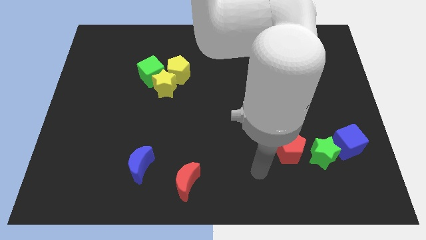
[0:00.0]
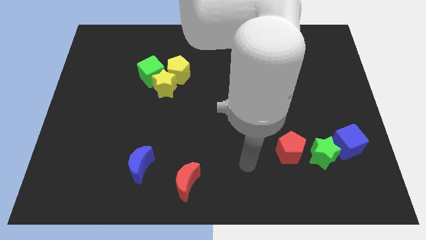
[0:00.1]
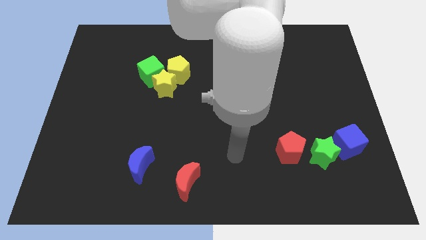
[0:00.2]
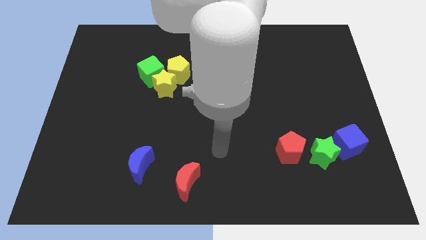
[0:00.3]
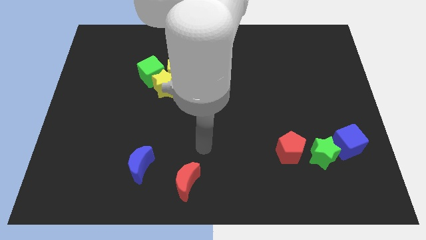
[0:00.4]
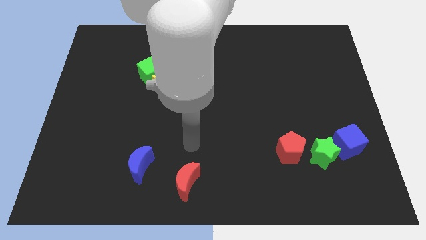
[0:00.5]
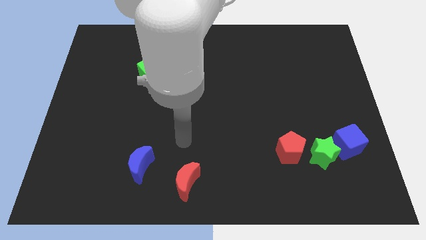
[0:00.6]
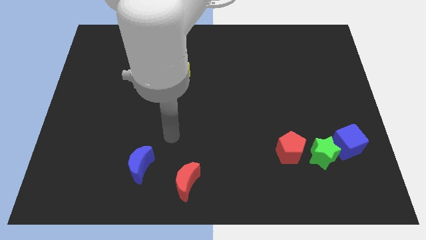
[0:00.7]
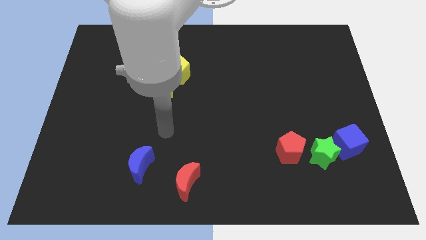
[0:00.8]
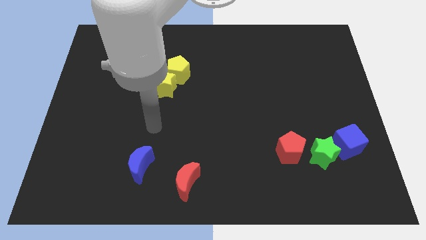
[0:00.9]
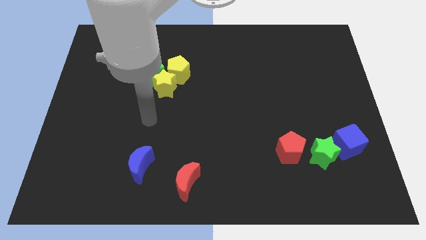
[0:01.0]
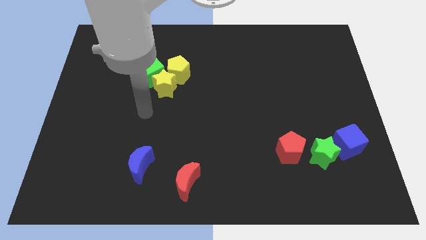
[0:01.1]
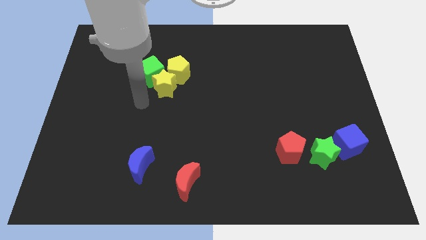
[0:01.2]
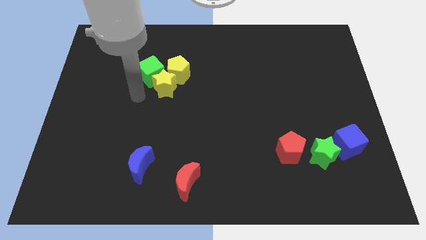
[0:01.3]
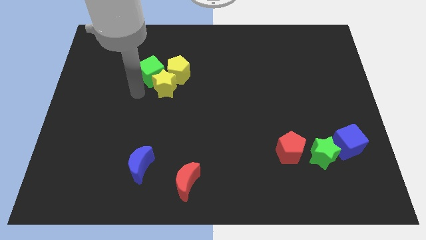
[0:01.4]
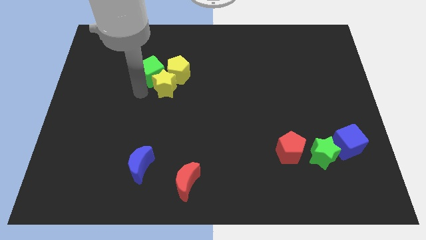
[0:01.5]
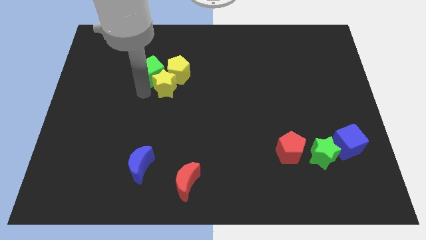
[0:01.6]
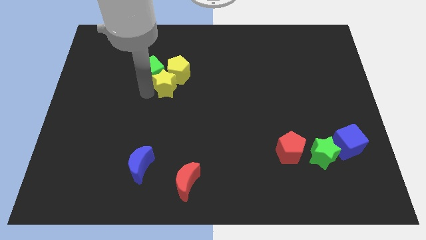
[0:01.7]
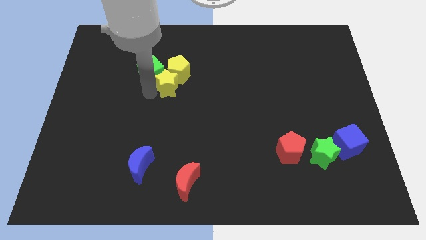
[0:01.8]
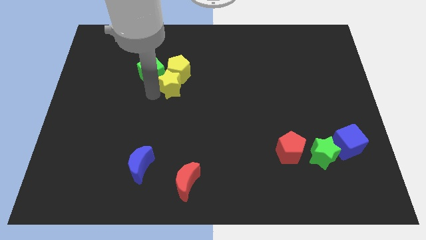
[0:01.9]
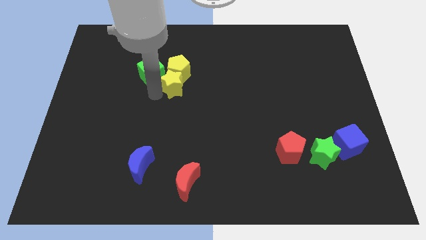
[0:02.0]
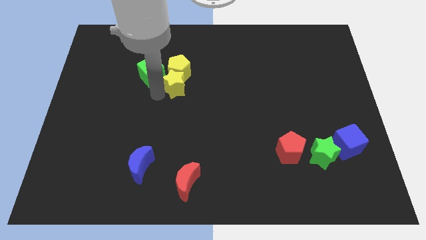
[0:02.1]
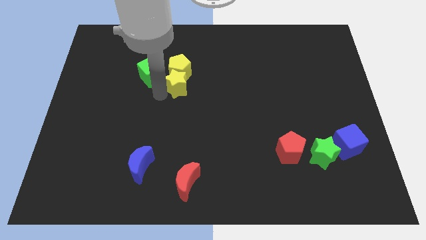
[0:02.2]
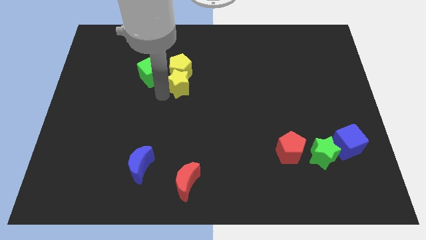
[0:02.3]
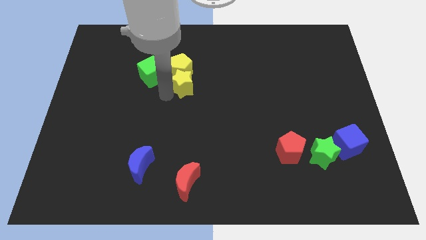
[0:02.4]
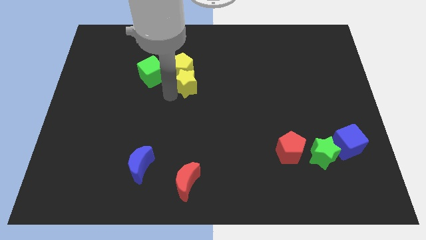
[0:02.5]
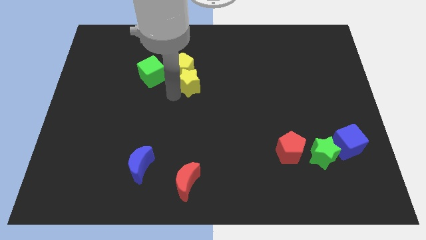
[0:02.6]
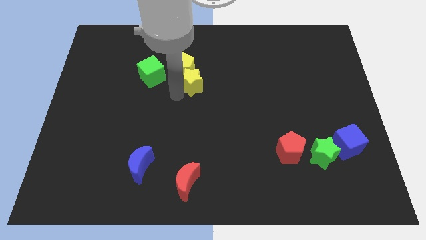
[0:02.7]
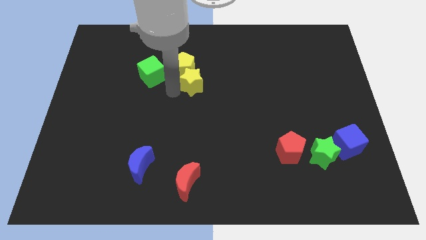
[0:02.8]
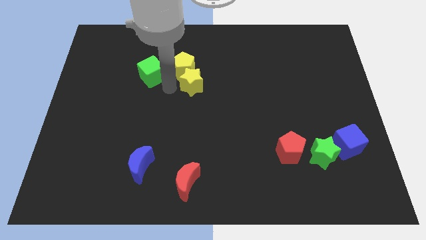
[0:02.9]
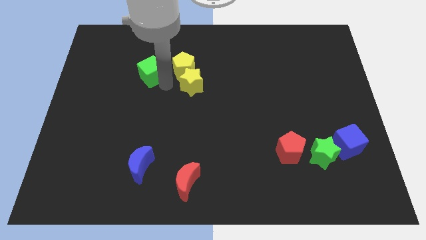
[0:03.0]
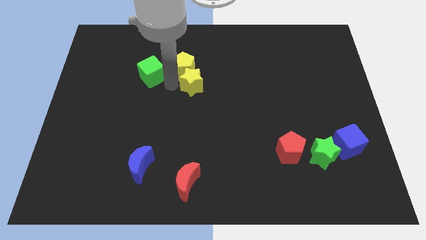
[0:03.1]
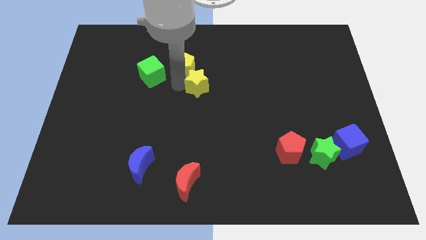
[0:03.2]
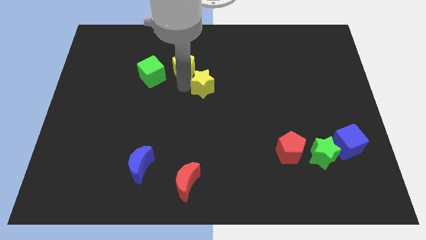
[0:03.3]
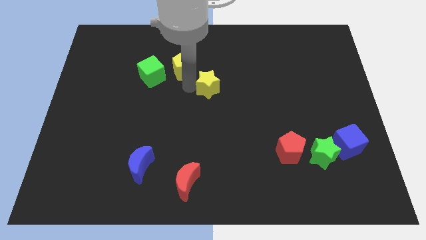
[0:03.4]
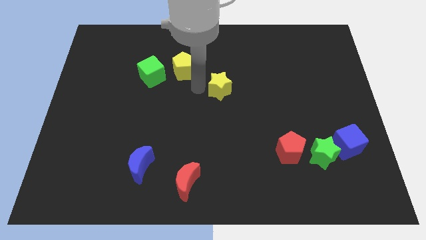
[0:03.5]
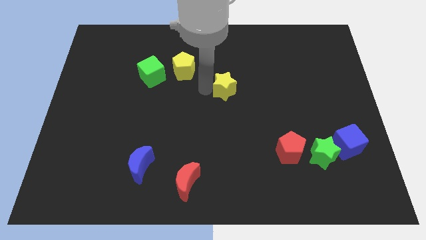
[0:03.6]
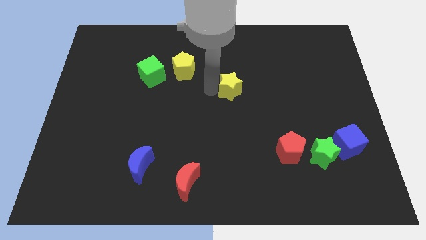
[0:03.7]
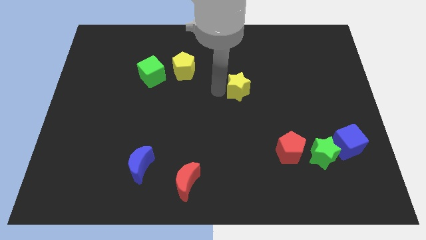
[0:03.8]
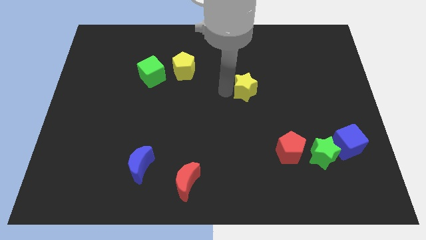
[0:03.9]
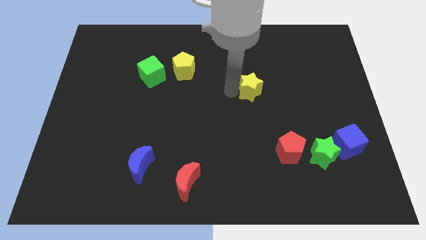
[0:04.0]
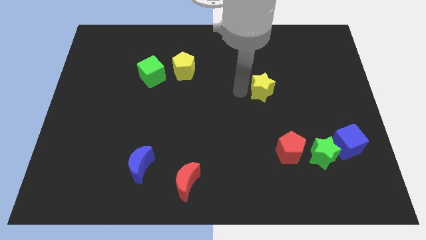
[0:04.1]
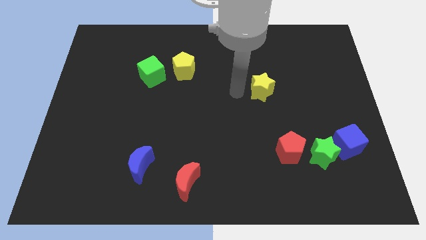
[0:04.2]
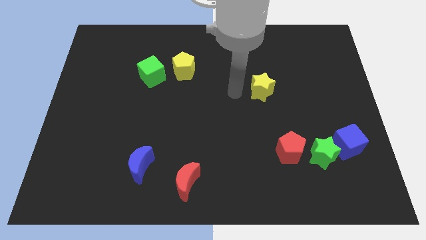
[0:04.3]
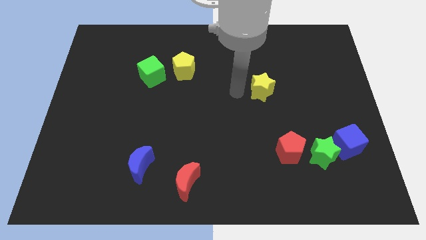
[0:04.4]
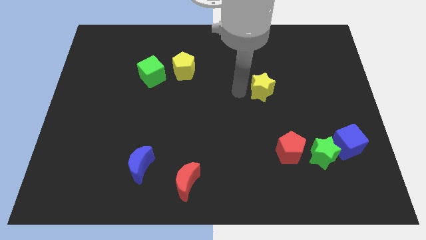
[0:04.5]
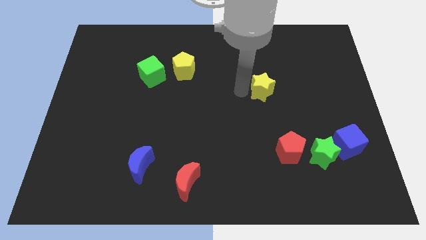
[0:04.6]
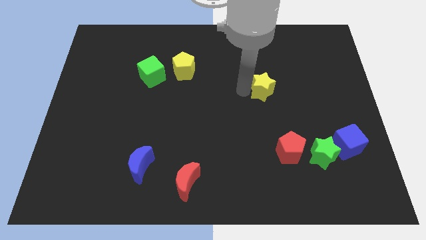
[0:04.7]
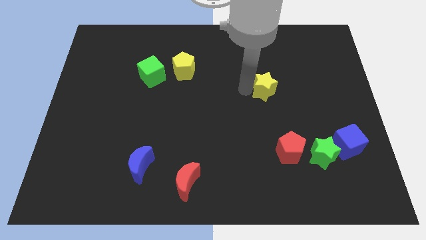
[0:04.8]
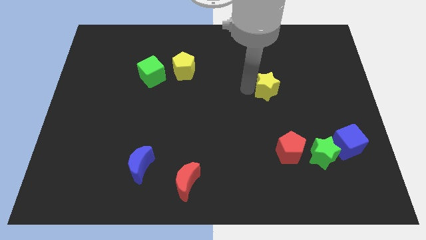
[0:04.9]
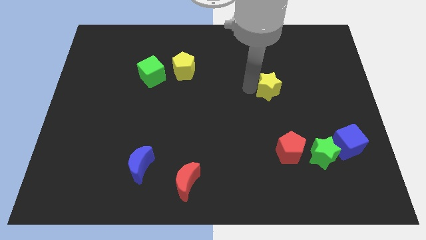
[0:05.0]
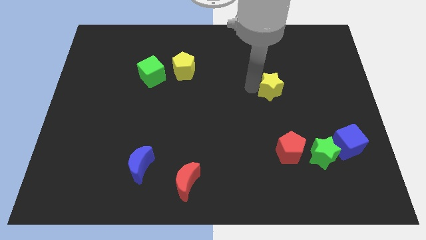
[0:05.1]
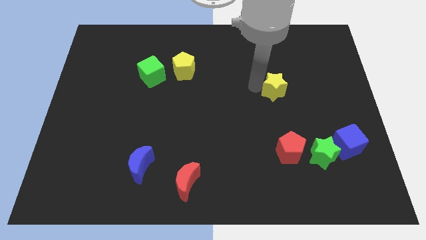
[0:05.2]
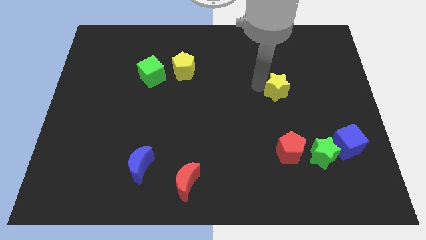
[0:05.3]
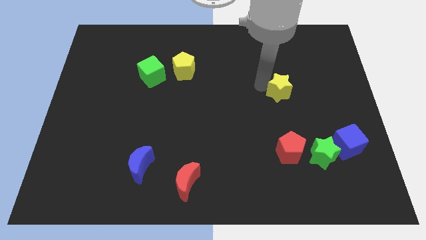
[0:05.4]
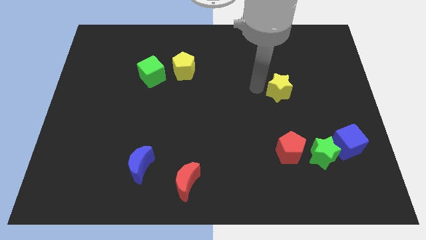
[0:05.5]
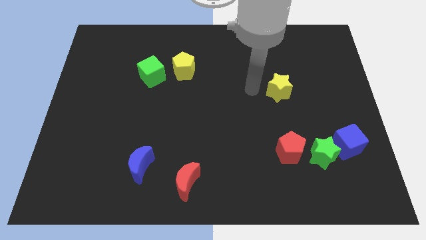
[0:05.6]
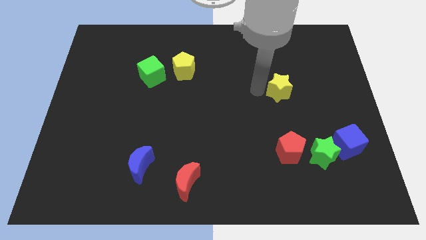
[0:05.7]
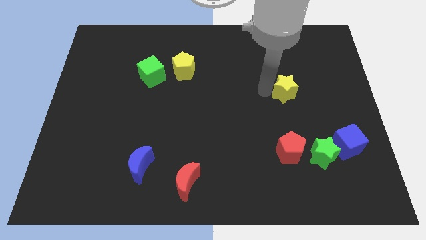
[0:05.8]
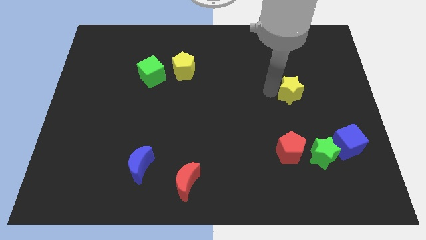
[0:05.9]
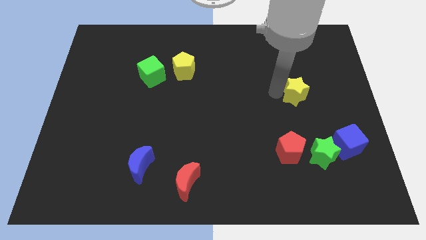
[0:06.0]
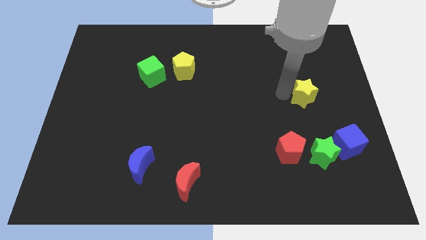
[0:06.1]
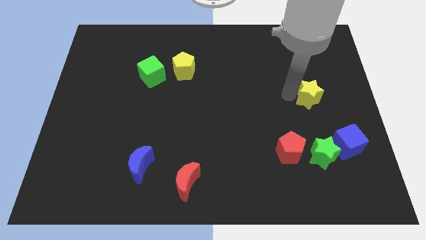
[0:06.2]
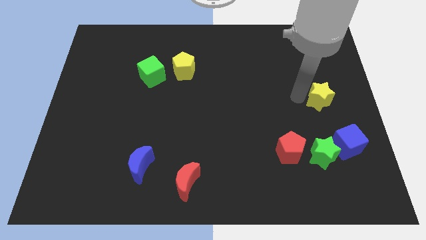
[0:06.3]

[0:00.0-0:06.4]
slide the yellow star to the right side

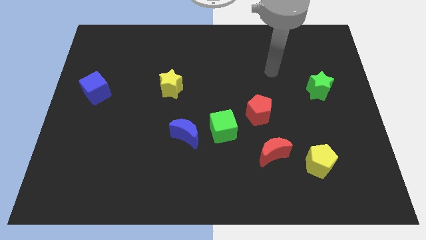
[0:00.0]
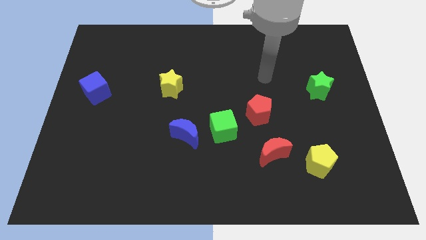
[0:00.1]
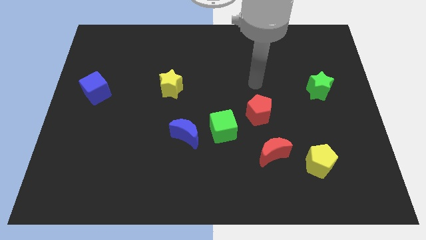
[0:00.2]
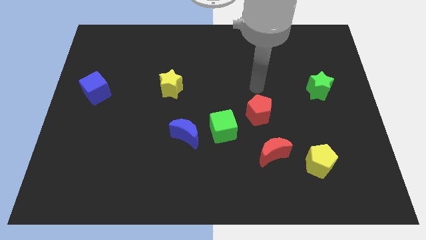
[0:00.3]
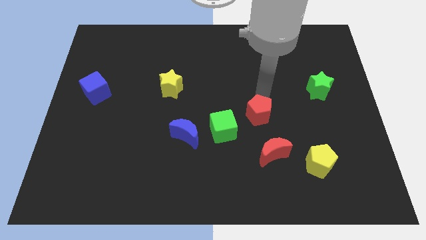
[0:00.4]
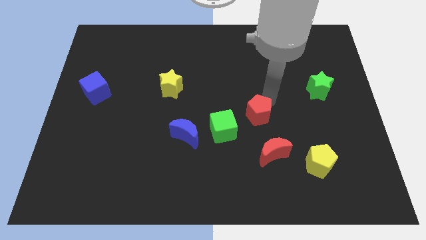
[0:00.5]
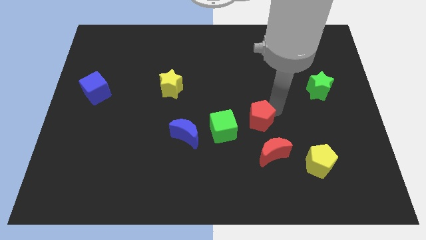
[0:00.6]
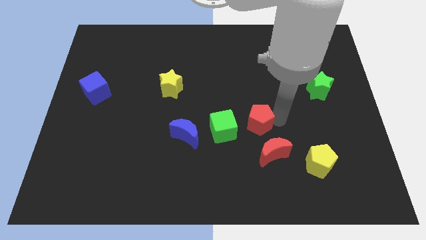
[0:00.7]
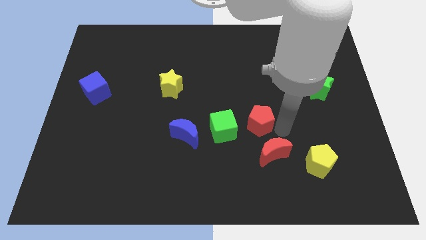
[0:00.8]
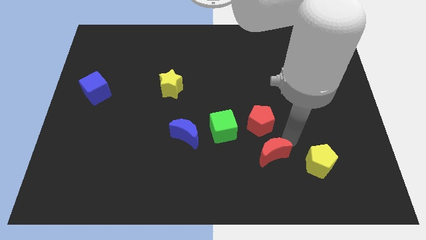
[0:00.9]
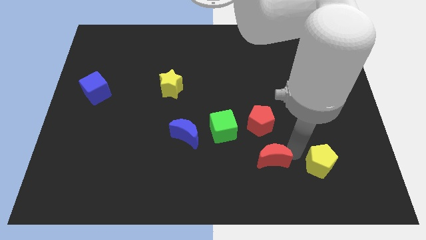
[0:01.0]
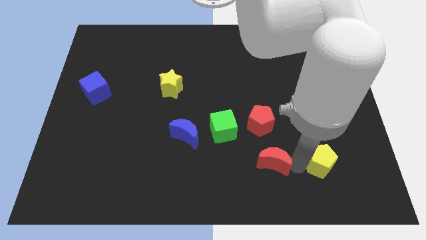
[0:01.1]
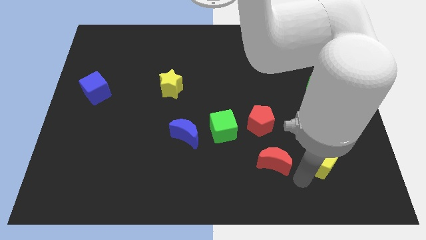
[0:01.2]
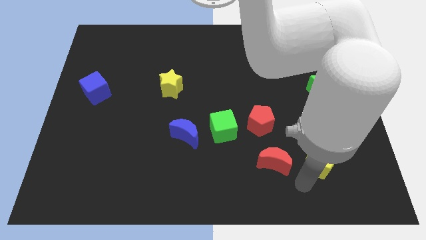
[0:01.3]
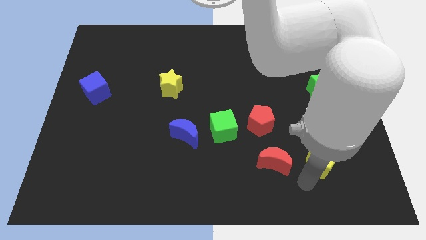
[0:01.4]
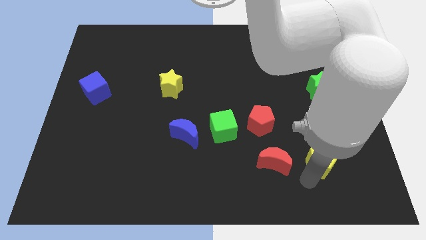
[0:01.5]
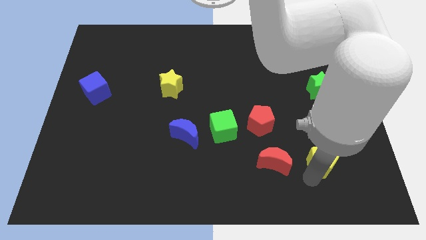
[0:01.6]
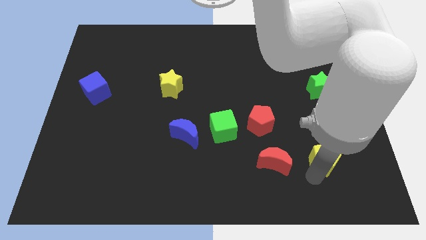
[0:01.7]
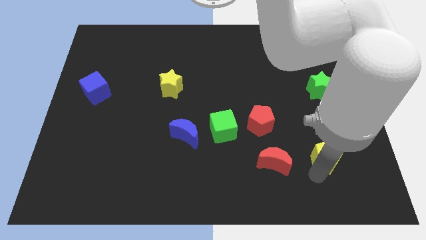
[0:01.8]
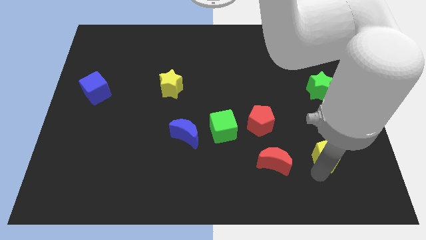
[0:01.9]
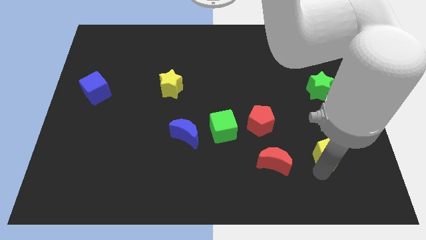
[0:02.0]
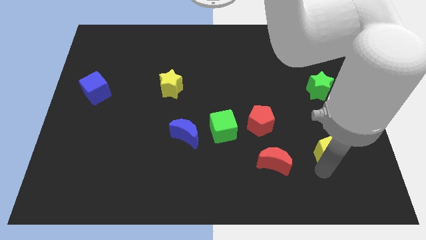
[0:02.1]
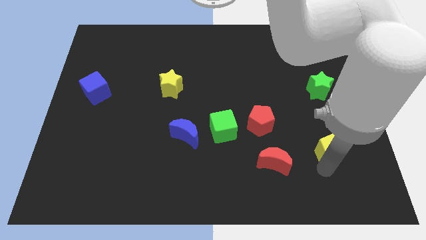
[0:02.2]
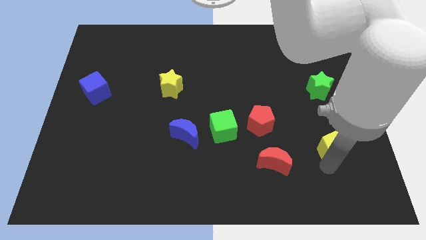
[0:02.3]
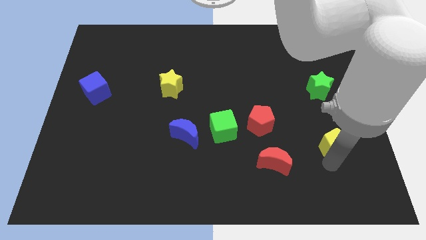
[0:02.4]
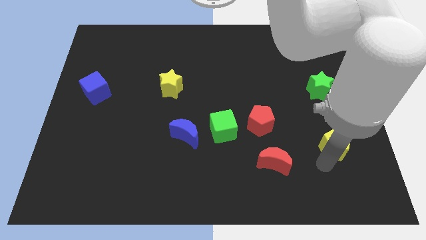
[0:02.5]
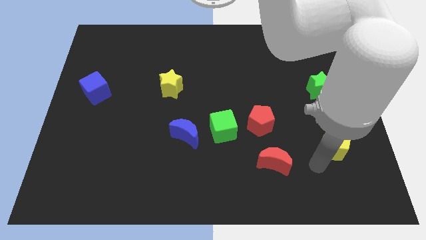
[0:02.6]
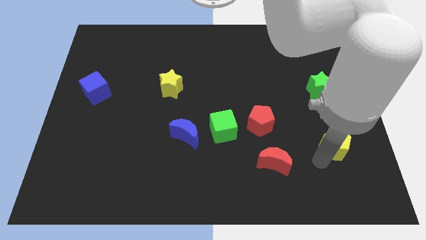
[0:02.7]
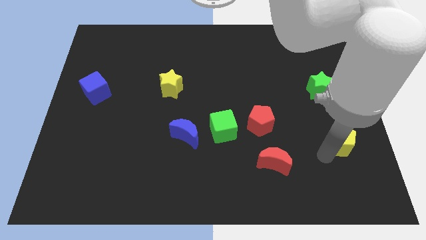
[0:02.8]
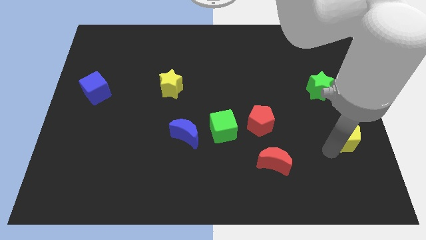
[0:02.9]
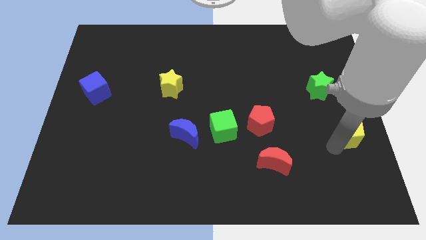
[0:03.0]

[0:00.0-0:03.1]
move the yellow pentagon to the right side
